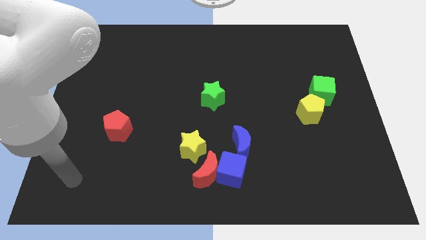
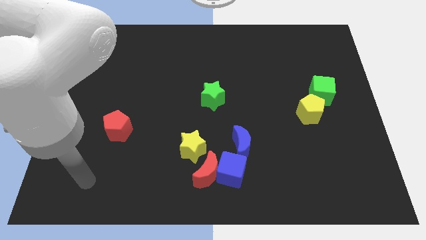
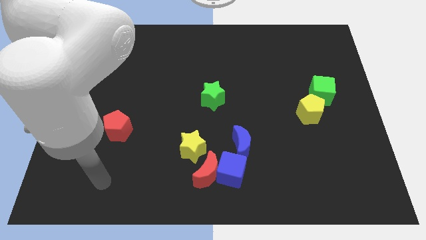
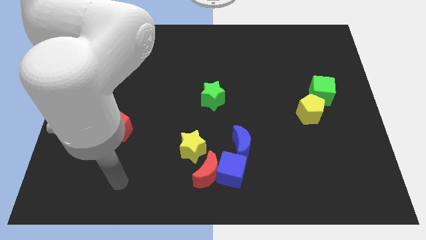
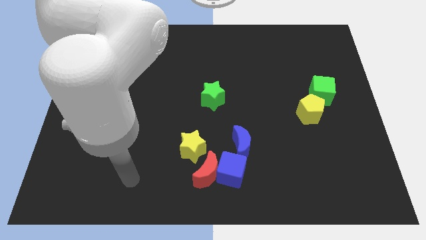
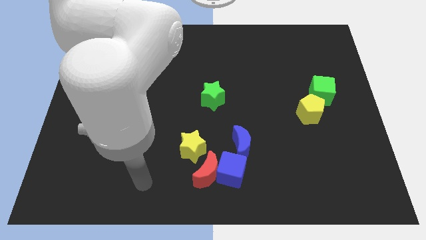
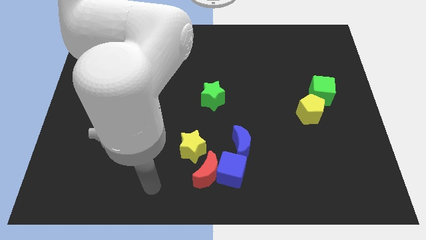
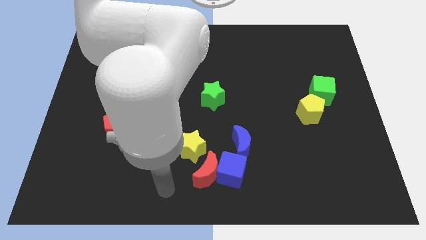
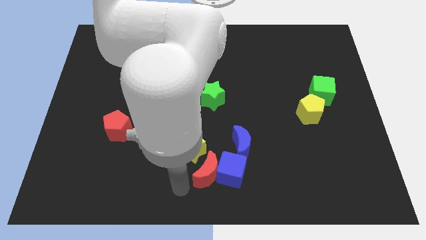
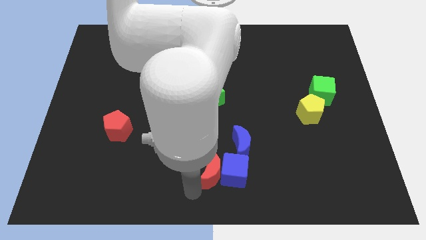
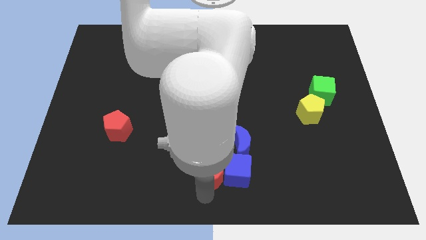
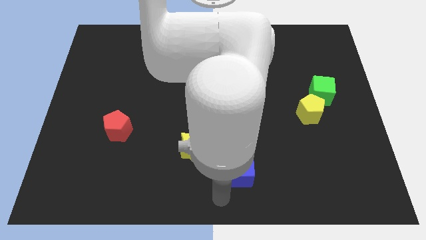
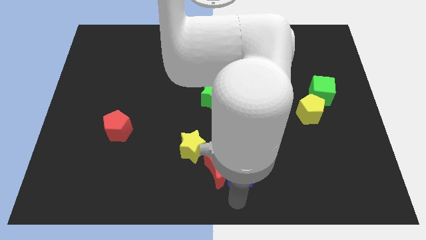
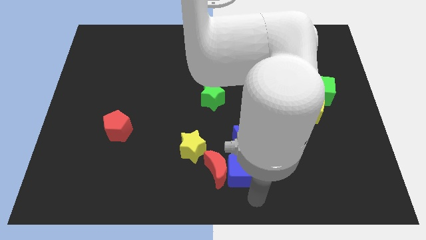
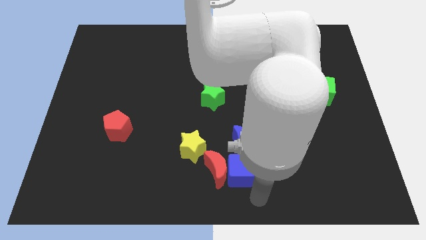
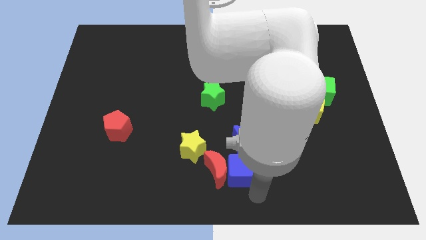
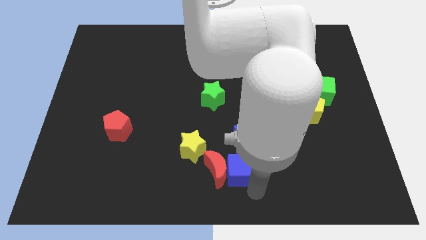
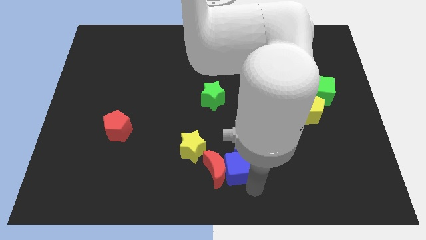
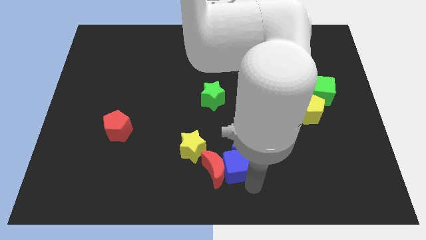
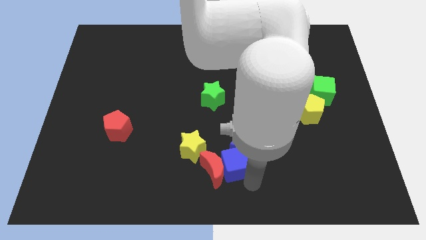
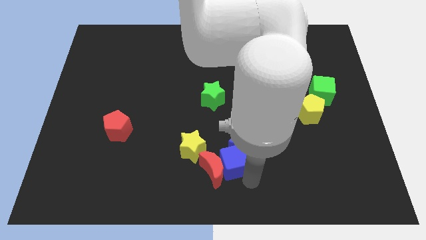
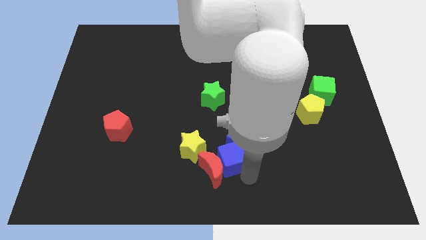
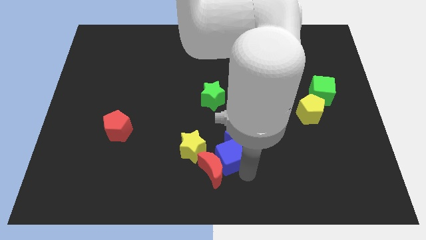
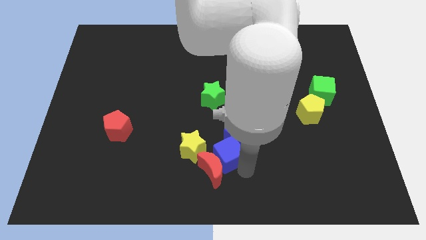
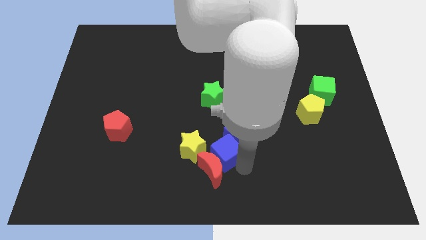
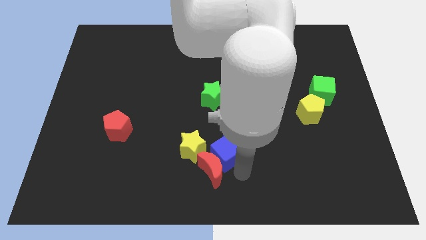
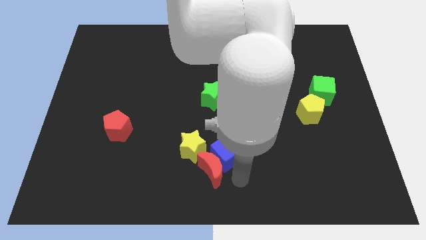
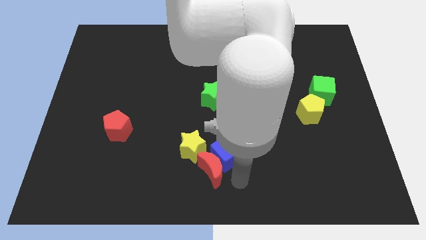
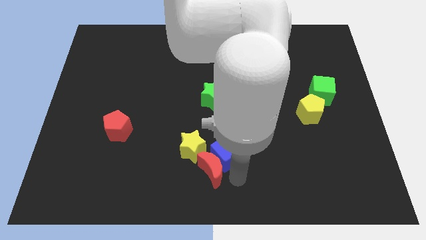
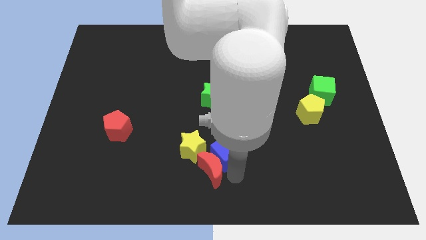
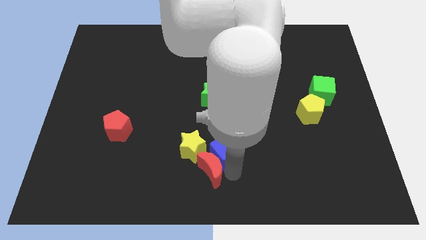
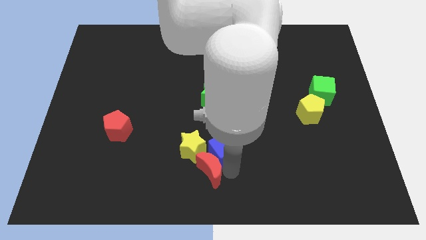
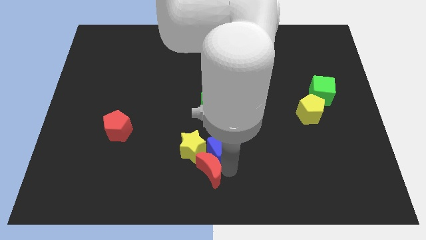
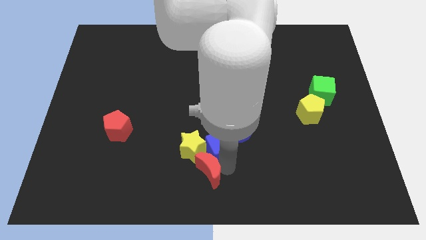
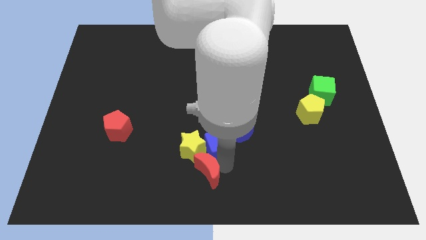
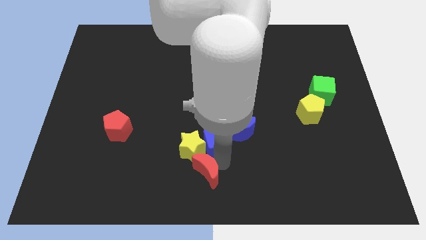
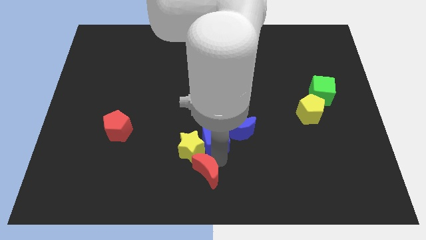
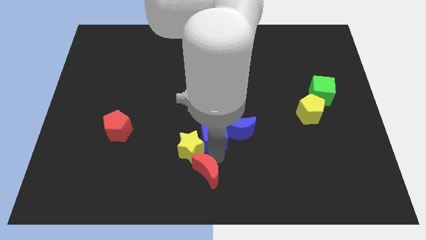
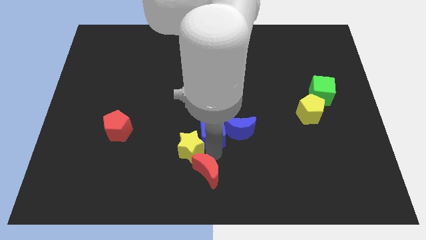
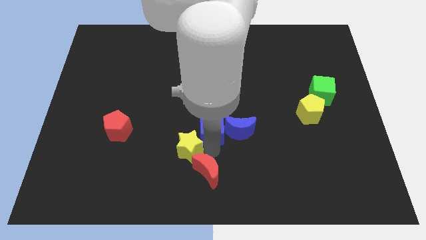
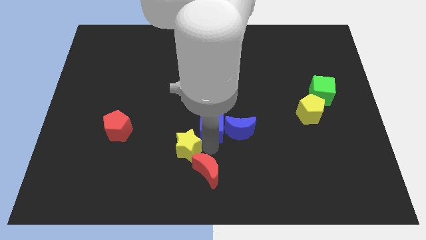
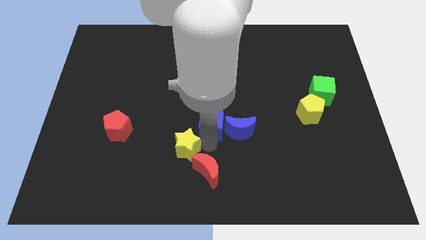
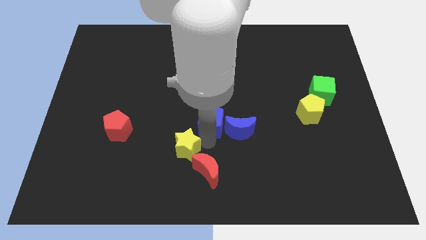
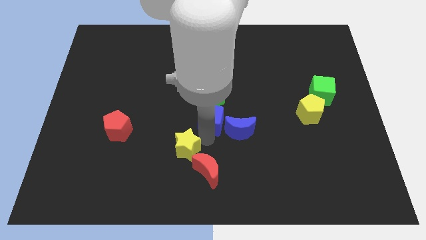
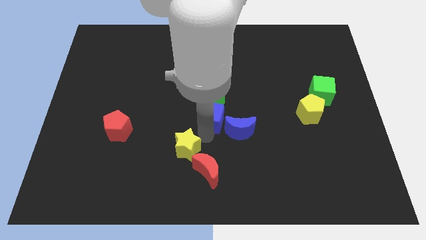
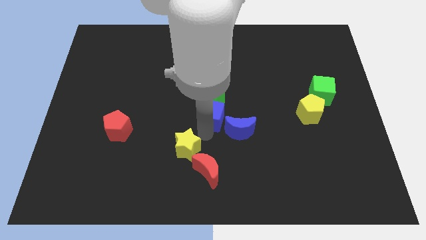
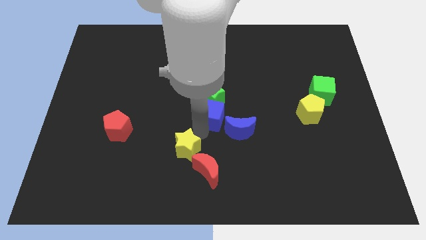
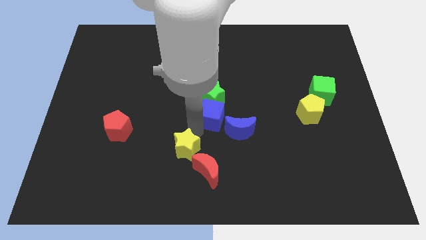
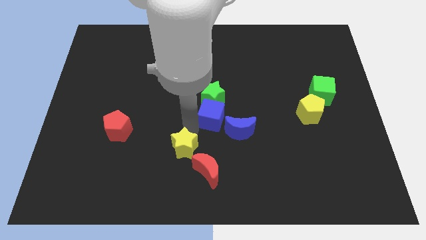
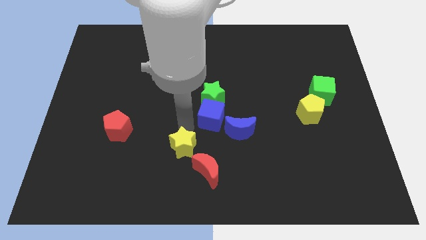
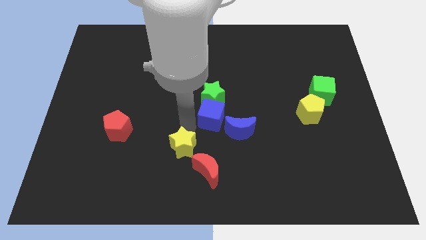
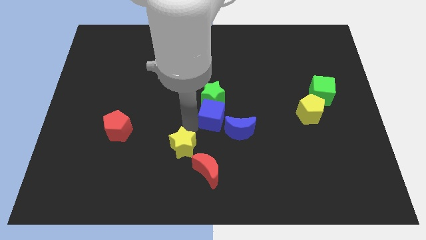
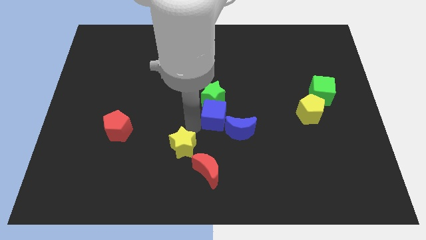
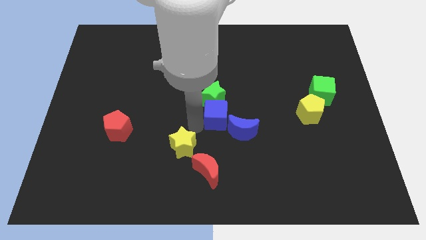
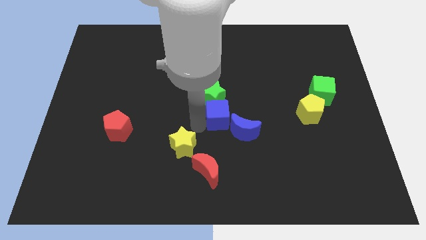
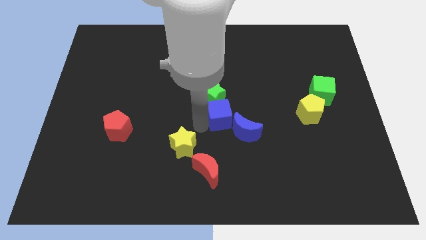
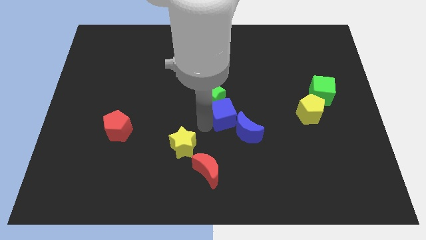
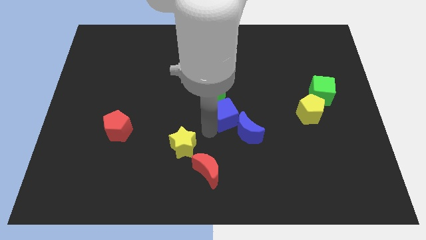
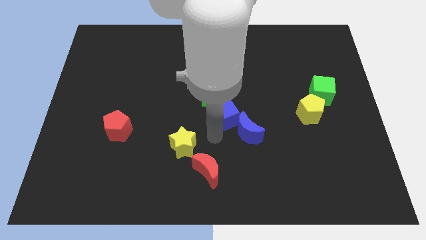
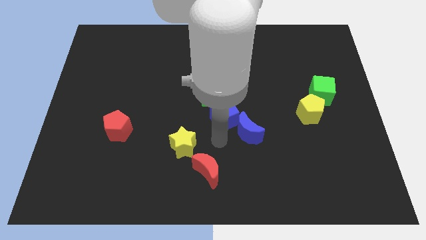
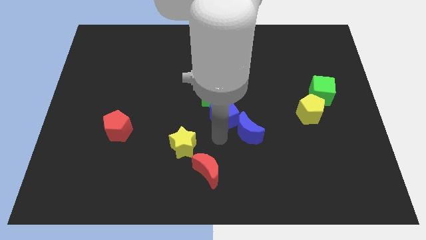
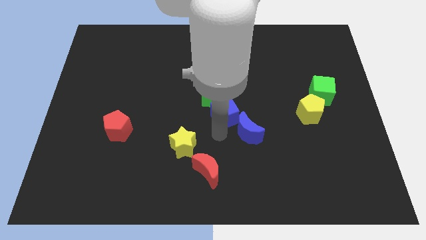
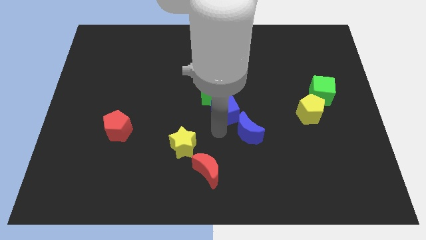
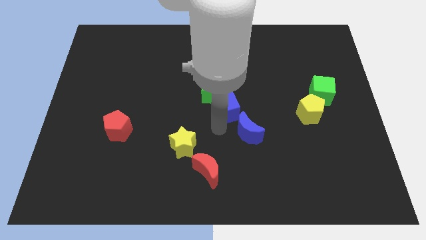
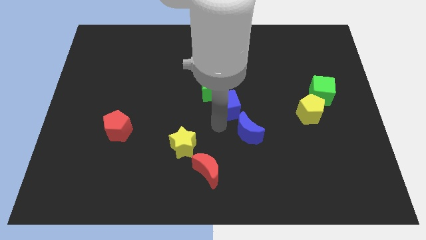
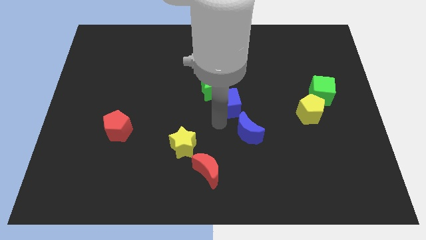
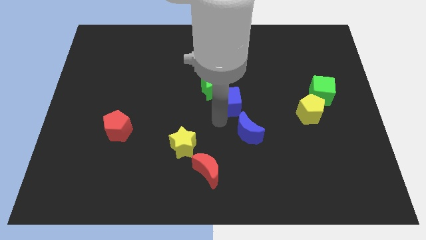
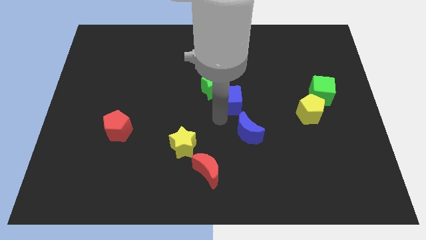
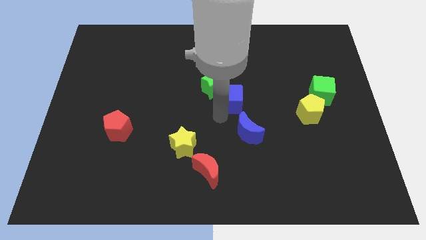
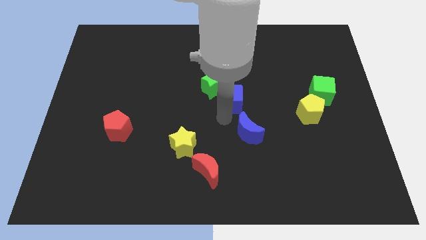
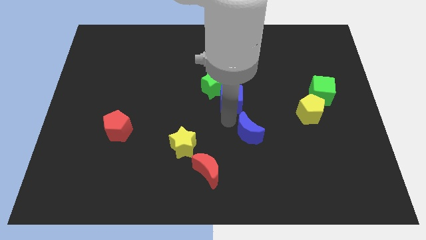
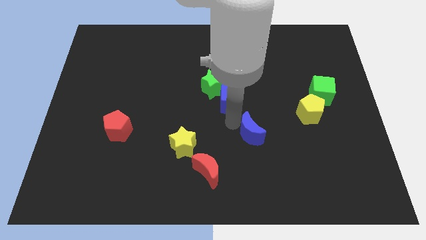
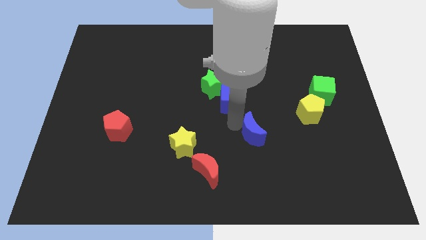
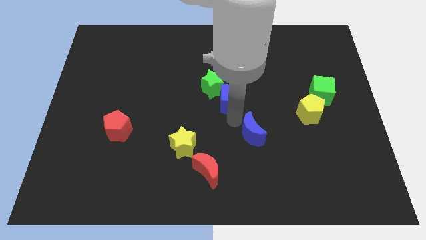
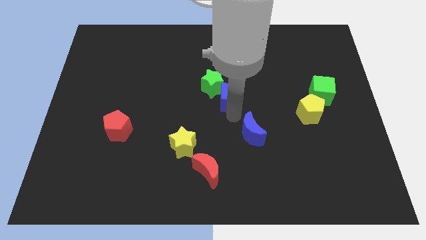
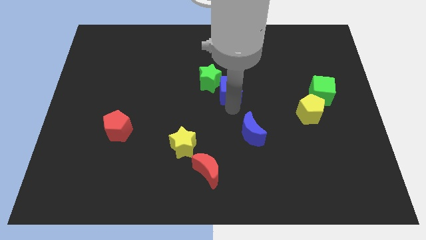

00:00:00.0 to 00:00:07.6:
move the blue cube upwards

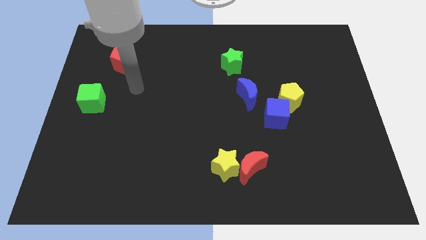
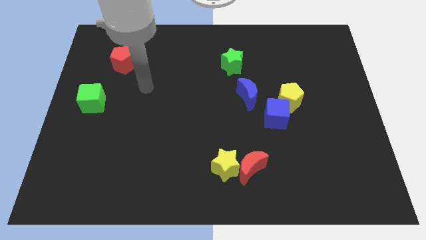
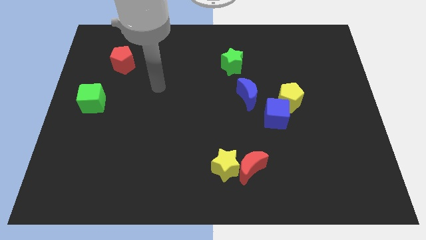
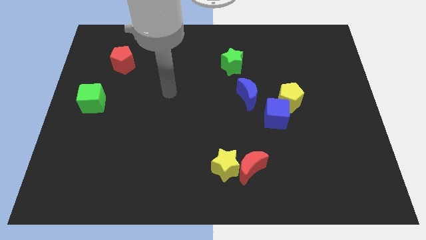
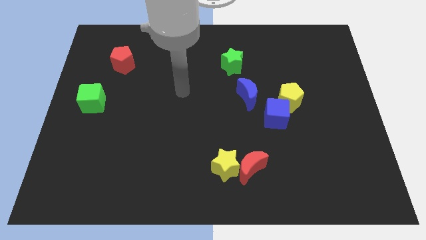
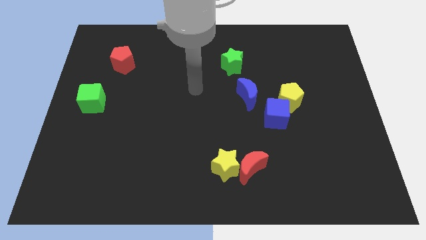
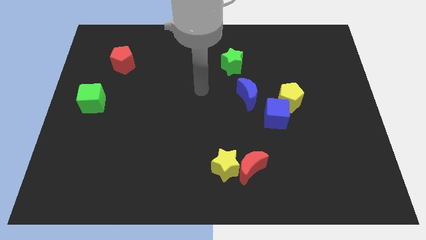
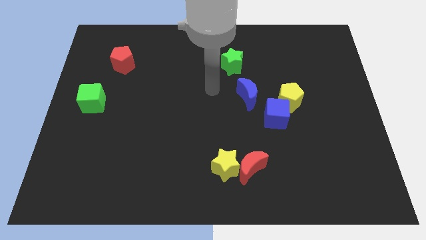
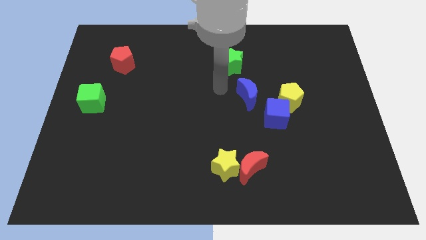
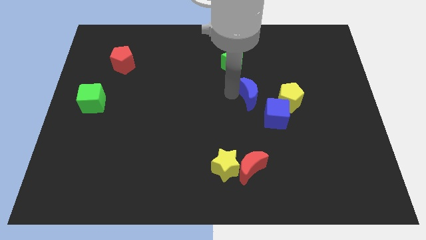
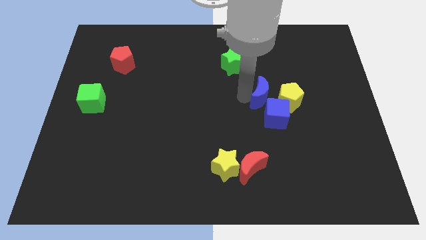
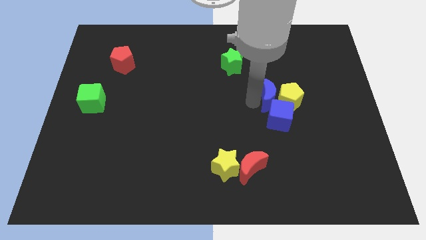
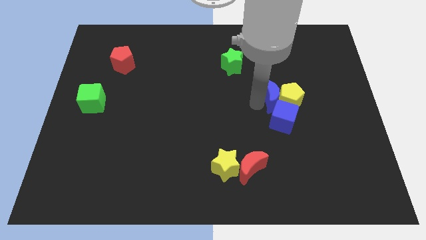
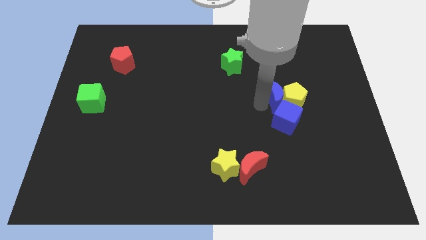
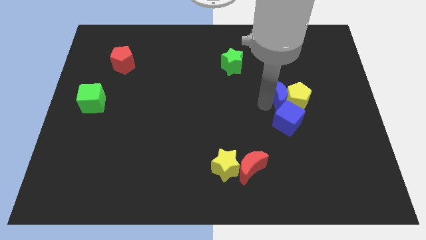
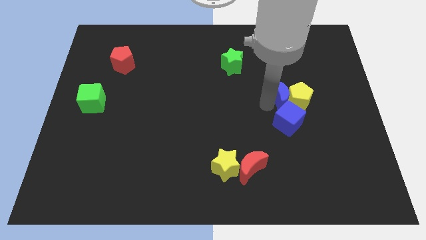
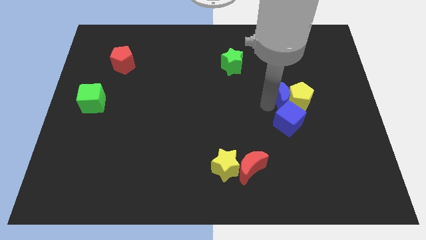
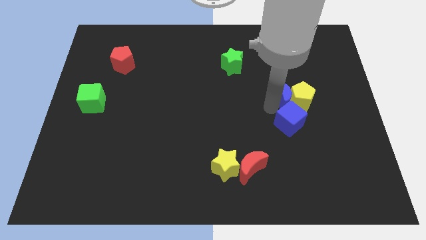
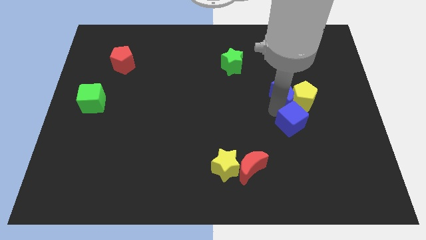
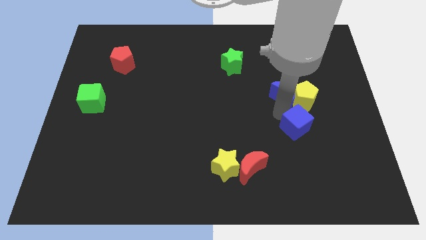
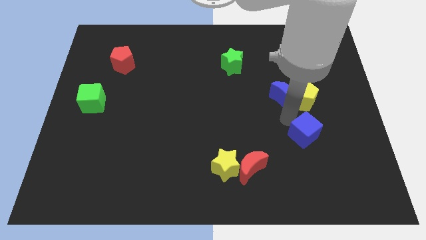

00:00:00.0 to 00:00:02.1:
slightly slide the blue cube downwards and to the right diagonally
